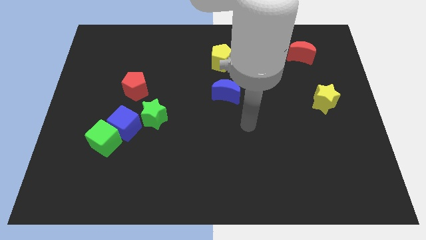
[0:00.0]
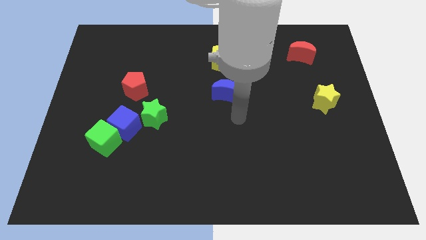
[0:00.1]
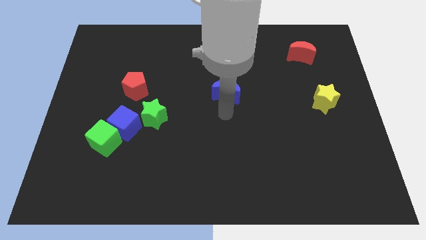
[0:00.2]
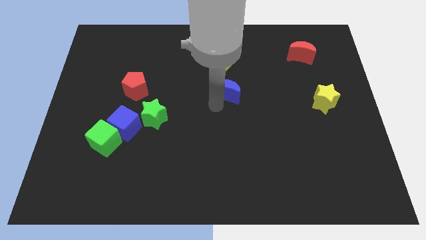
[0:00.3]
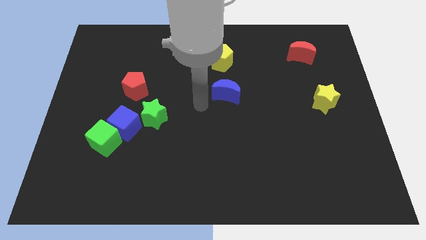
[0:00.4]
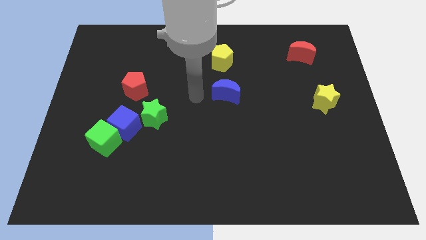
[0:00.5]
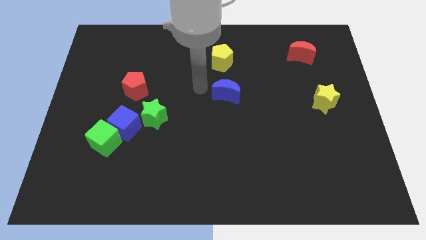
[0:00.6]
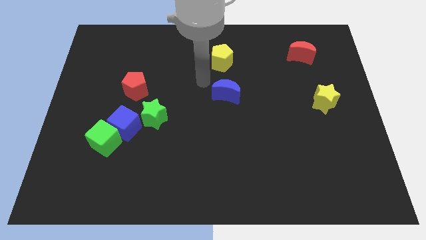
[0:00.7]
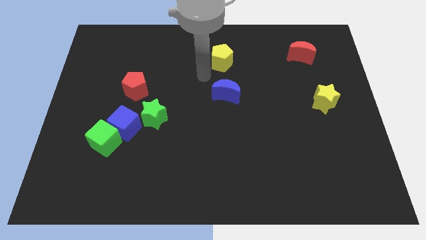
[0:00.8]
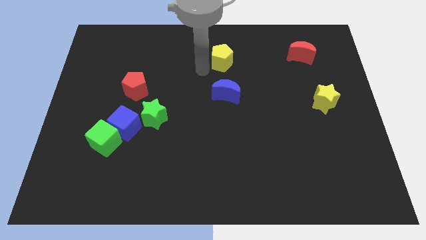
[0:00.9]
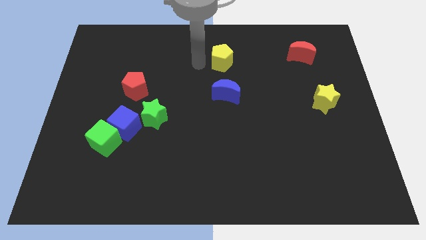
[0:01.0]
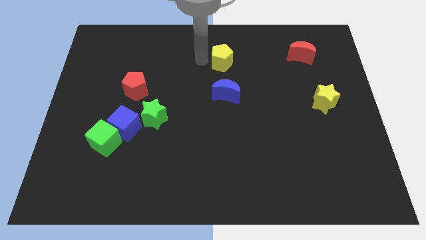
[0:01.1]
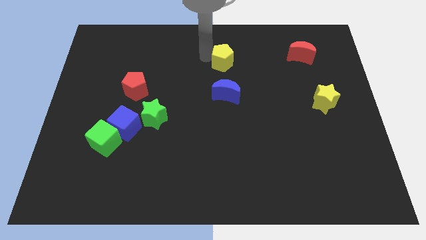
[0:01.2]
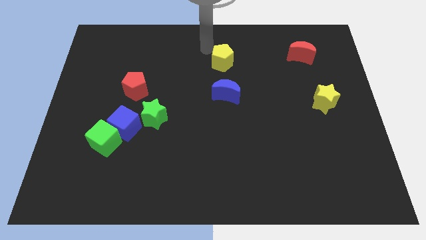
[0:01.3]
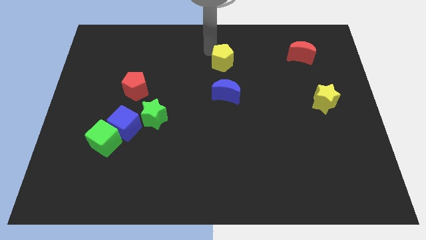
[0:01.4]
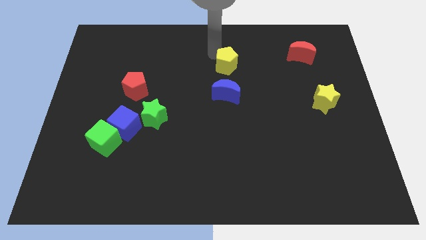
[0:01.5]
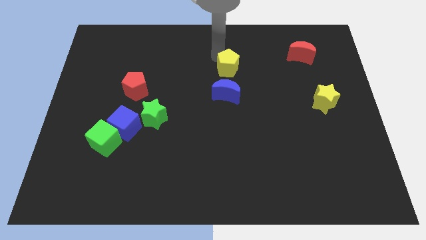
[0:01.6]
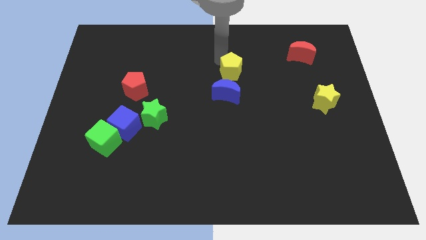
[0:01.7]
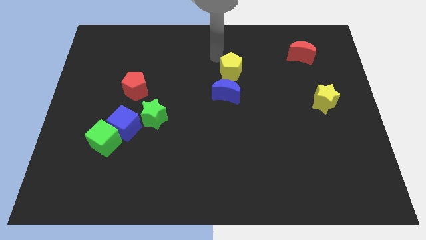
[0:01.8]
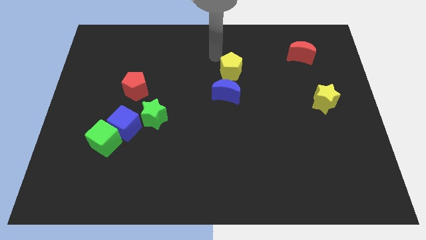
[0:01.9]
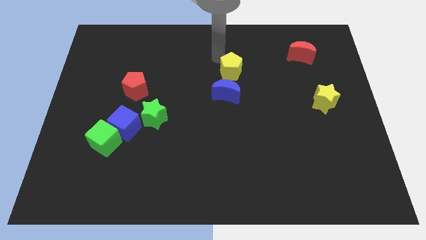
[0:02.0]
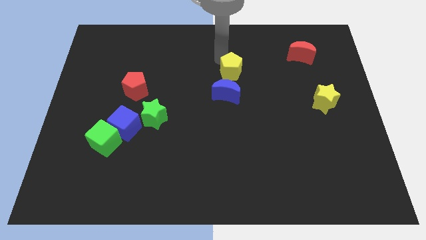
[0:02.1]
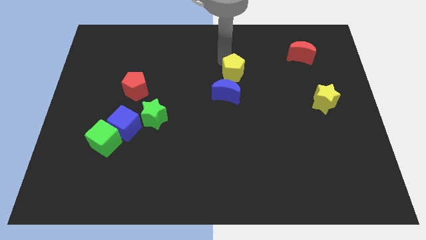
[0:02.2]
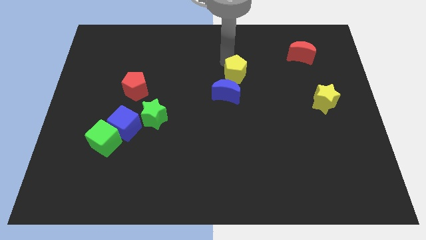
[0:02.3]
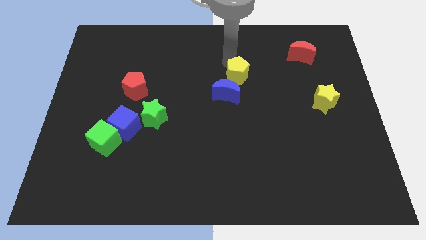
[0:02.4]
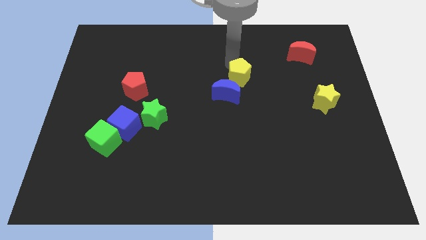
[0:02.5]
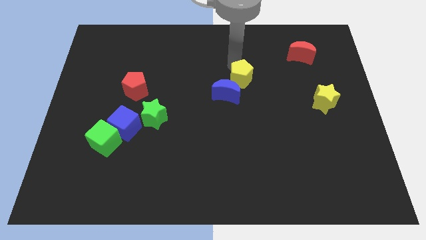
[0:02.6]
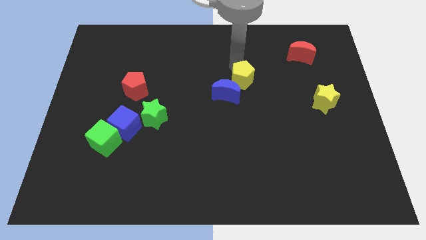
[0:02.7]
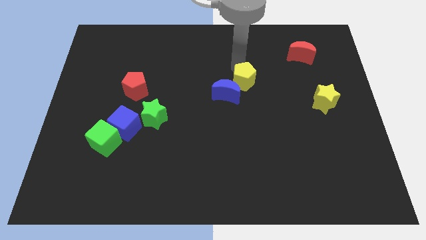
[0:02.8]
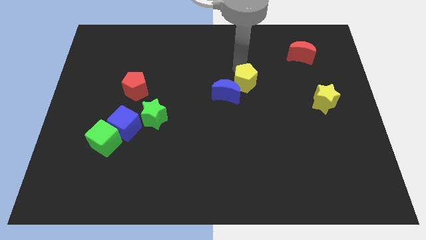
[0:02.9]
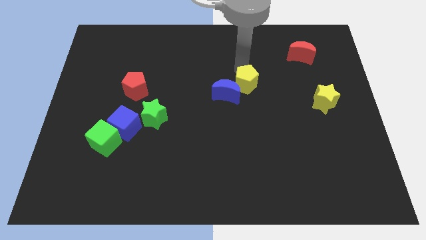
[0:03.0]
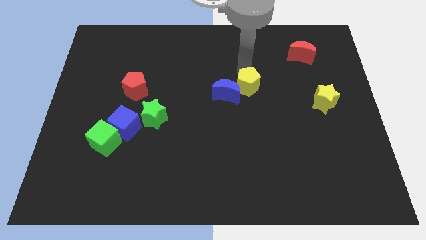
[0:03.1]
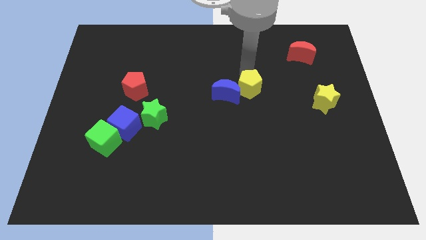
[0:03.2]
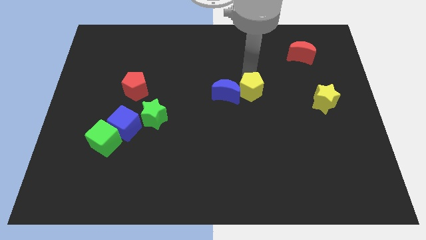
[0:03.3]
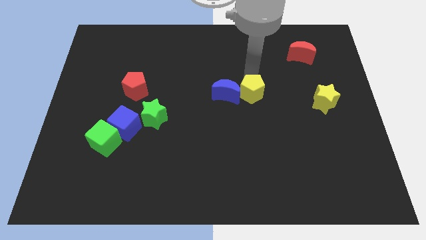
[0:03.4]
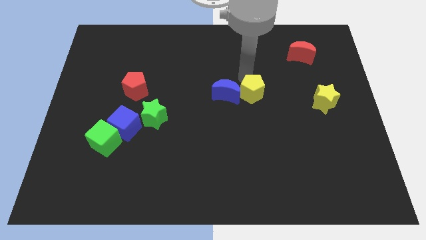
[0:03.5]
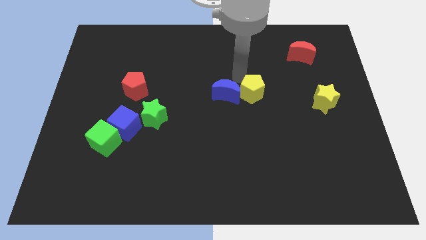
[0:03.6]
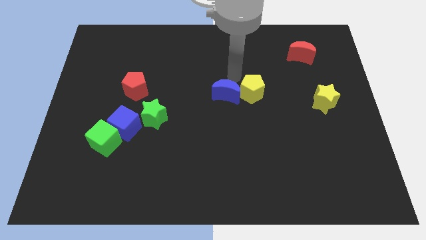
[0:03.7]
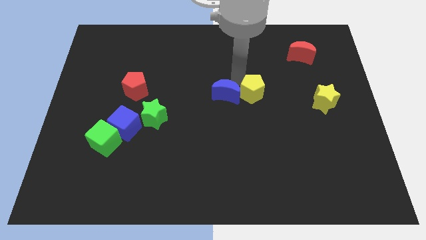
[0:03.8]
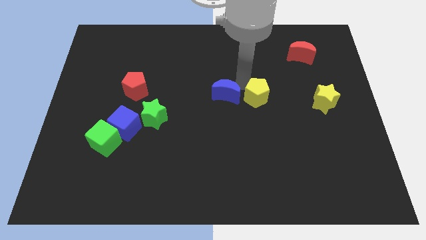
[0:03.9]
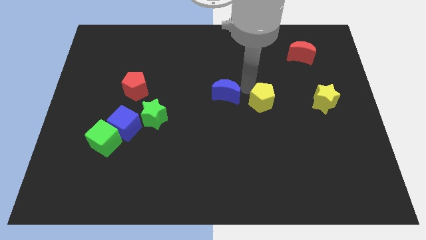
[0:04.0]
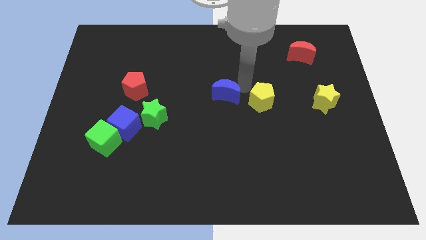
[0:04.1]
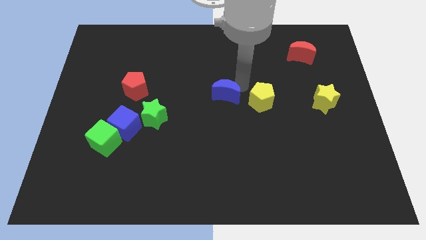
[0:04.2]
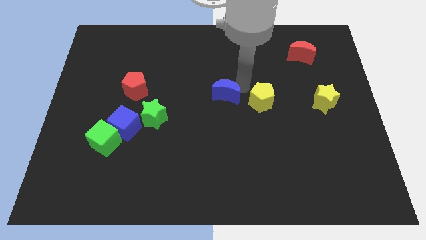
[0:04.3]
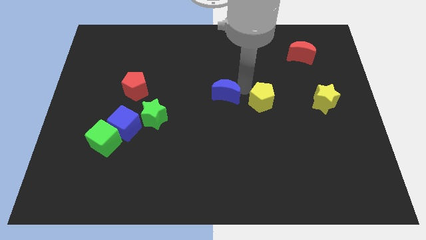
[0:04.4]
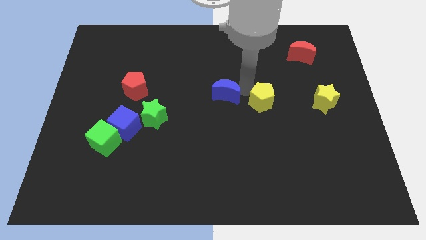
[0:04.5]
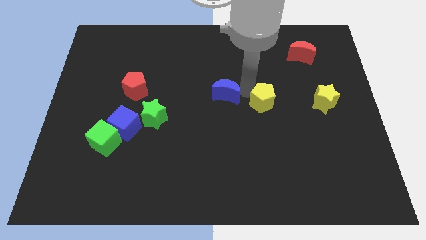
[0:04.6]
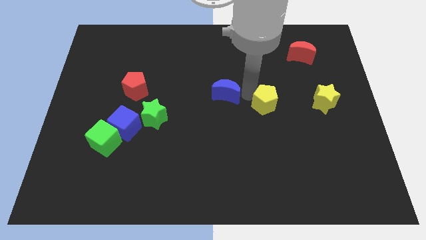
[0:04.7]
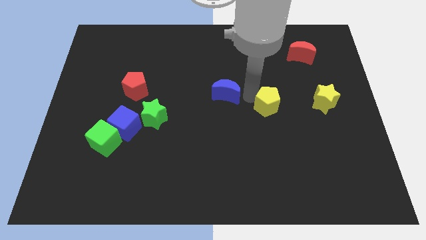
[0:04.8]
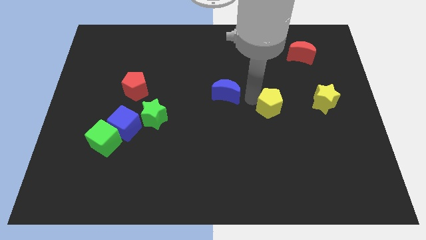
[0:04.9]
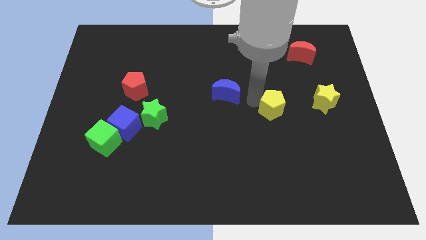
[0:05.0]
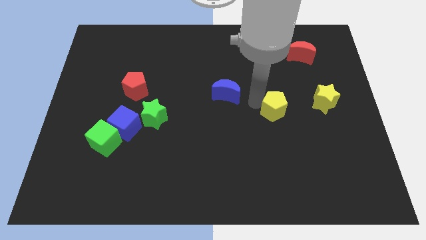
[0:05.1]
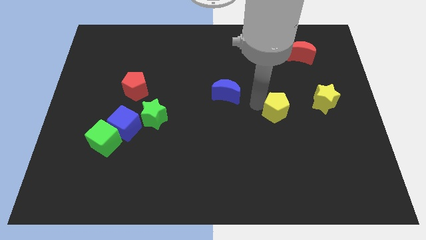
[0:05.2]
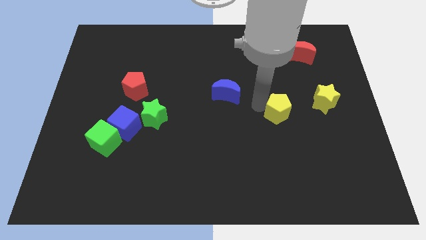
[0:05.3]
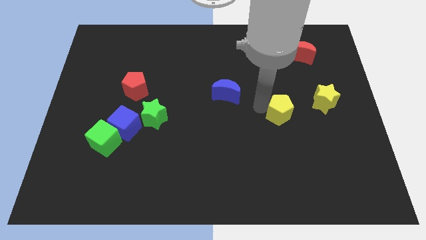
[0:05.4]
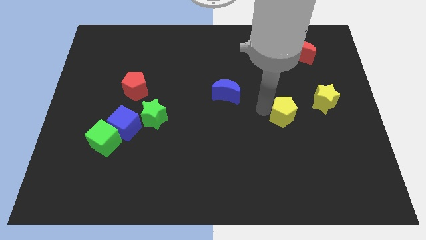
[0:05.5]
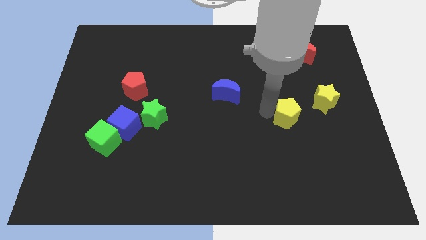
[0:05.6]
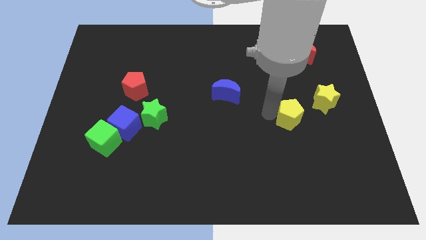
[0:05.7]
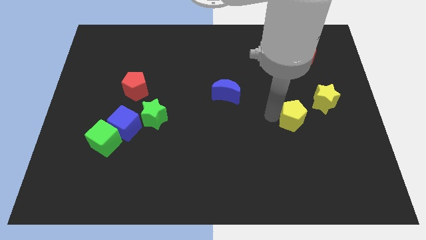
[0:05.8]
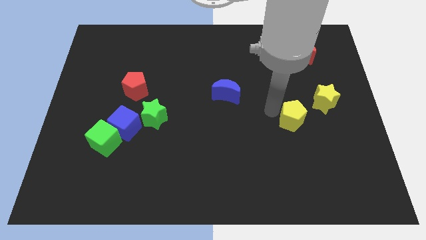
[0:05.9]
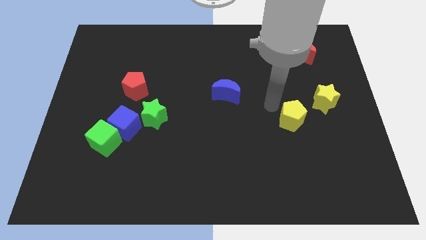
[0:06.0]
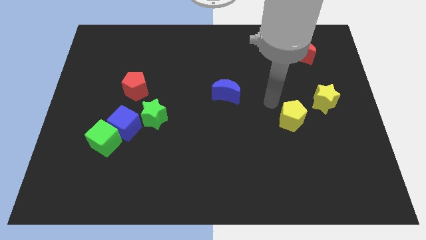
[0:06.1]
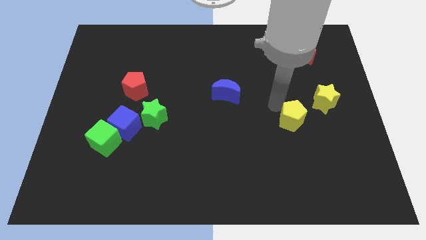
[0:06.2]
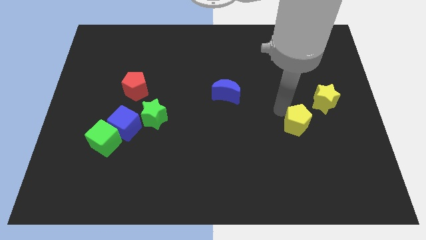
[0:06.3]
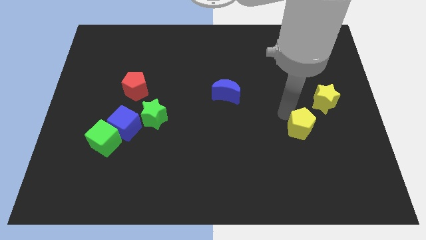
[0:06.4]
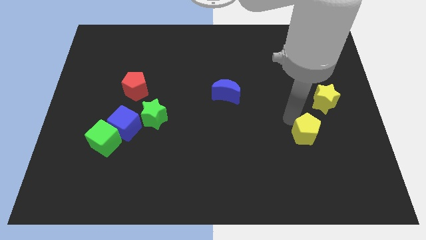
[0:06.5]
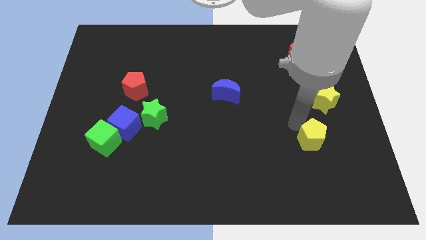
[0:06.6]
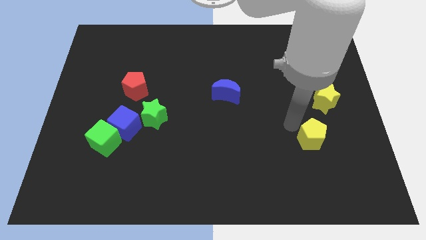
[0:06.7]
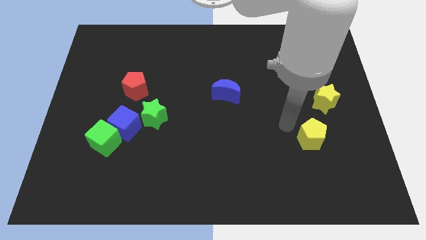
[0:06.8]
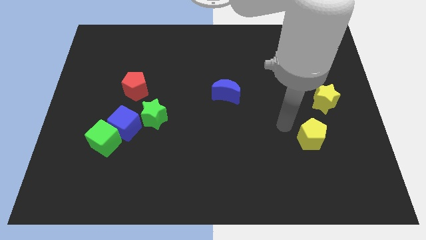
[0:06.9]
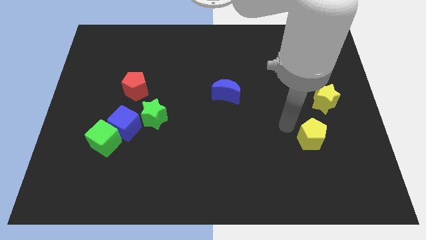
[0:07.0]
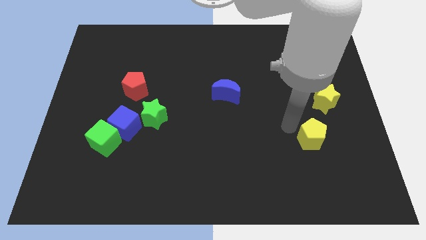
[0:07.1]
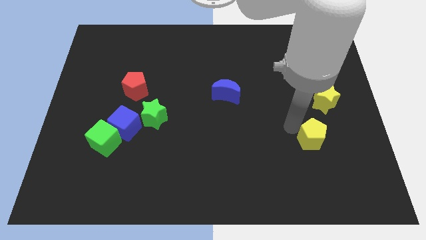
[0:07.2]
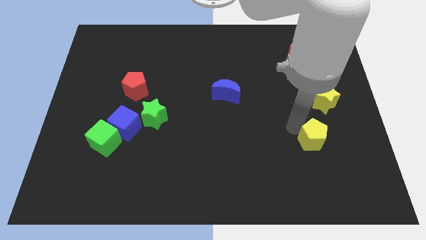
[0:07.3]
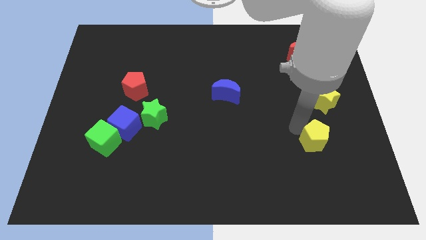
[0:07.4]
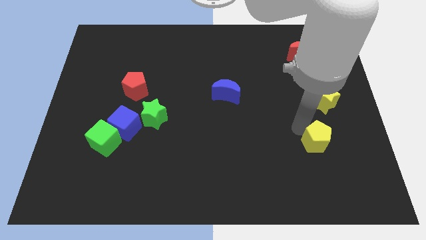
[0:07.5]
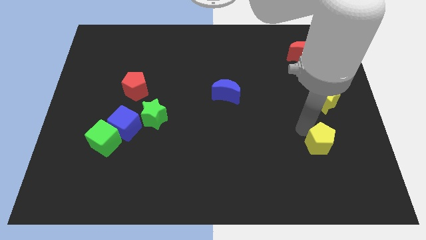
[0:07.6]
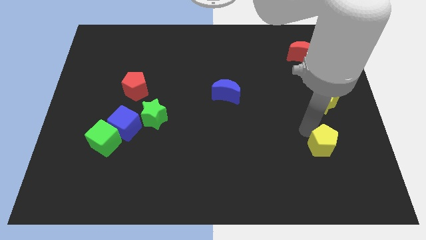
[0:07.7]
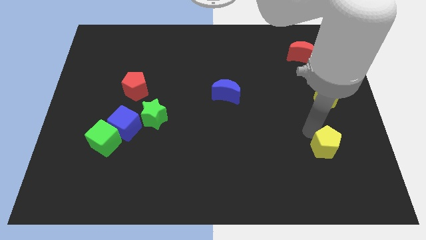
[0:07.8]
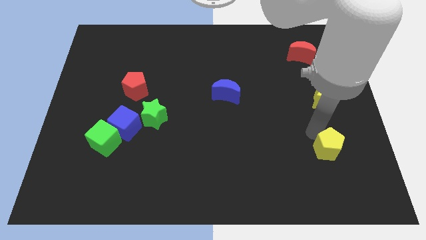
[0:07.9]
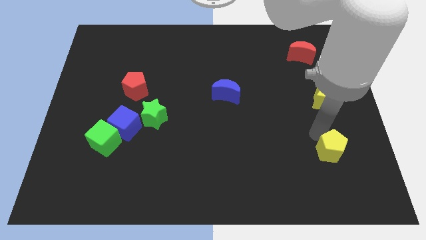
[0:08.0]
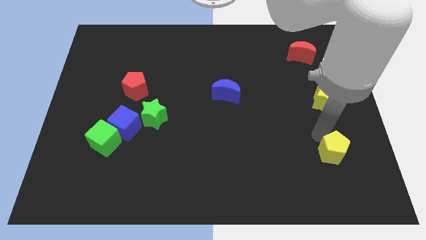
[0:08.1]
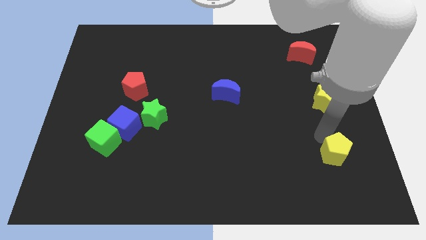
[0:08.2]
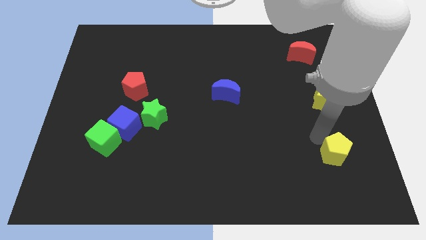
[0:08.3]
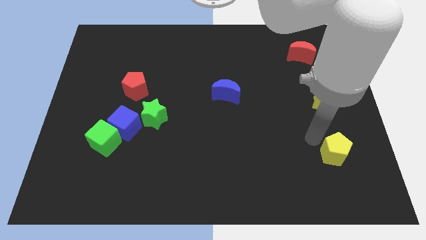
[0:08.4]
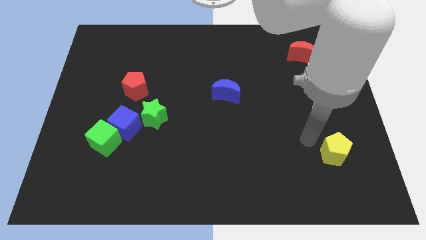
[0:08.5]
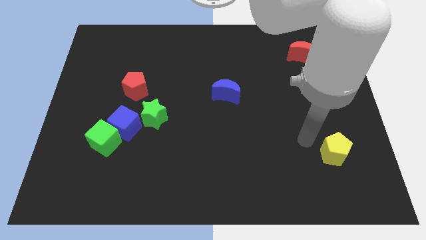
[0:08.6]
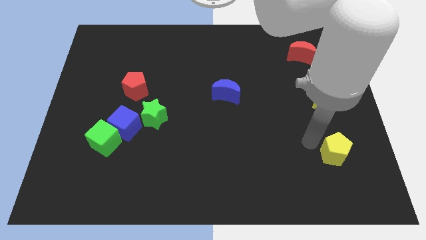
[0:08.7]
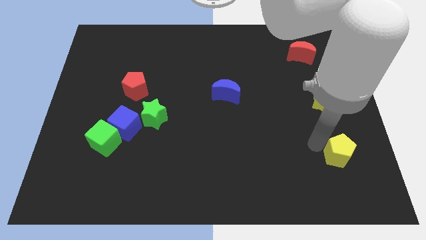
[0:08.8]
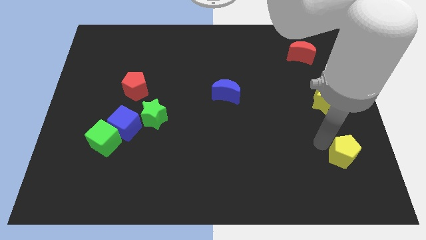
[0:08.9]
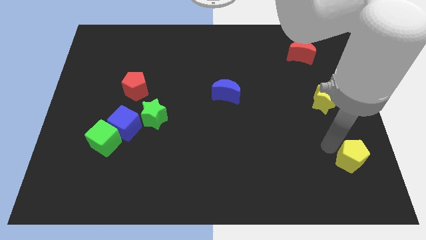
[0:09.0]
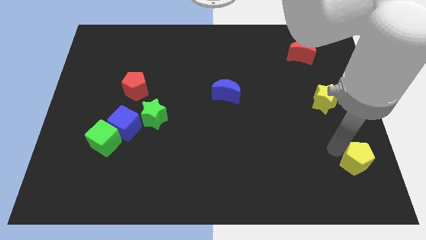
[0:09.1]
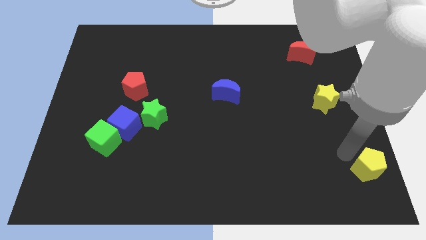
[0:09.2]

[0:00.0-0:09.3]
put the yellow pentagon to the lower right corner
